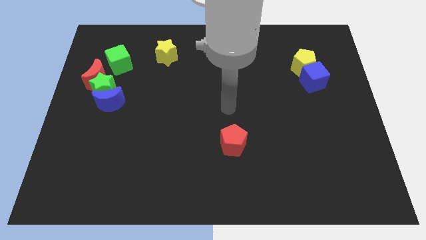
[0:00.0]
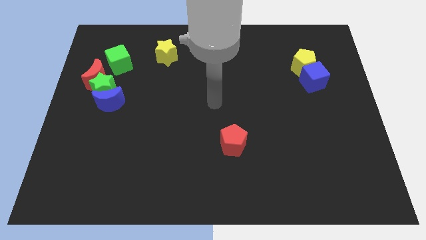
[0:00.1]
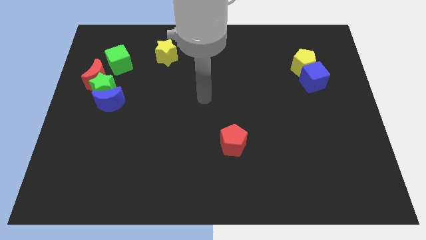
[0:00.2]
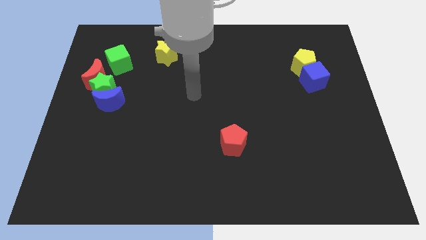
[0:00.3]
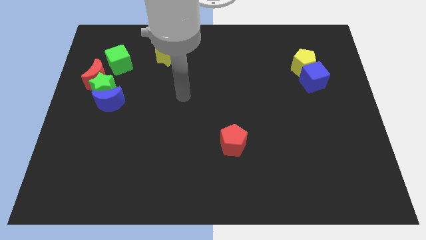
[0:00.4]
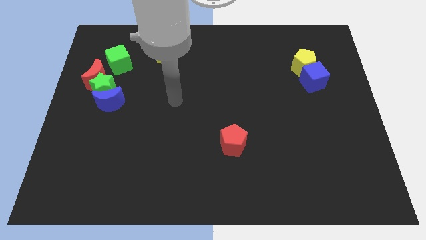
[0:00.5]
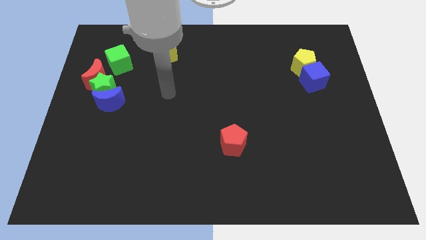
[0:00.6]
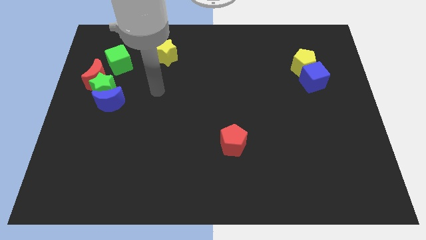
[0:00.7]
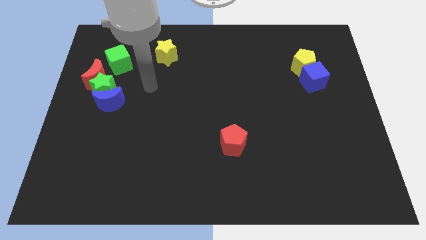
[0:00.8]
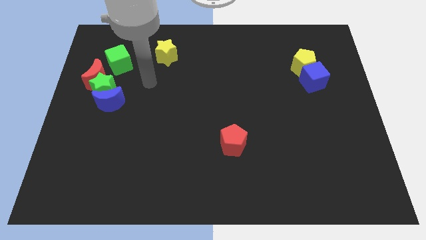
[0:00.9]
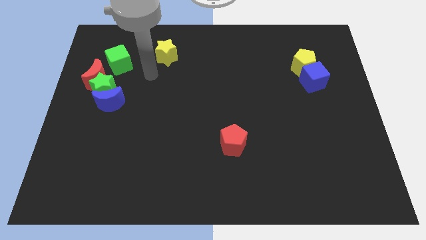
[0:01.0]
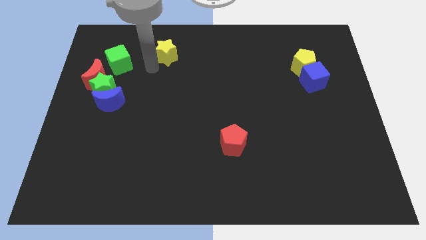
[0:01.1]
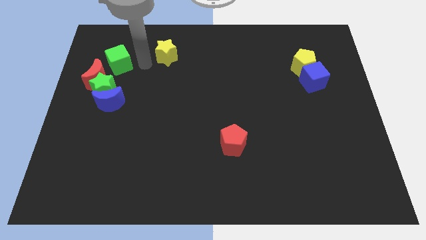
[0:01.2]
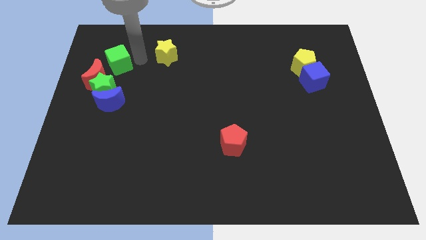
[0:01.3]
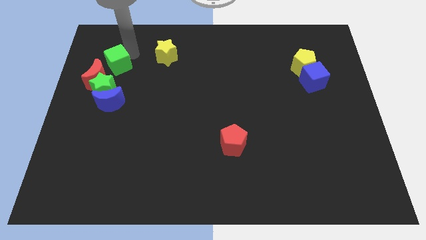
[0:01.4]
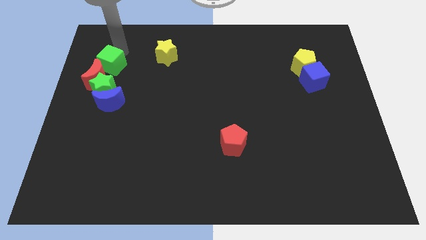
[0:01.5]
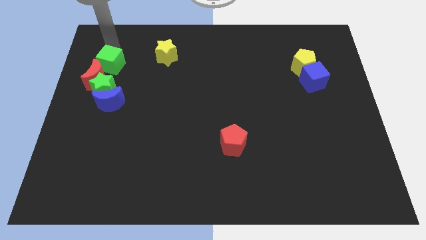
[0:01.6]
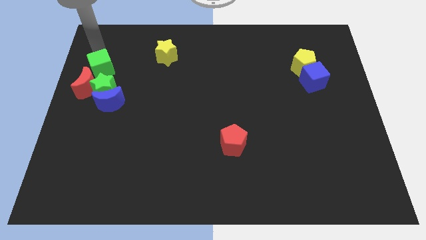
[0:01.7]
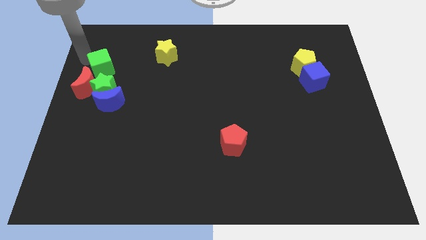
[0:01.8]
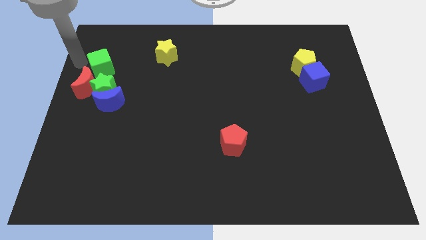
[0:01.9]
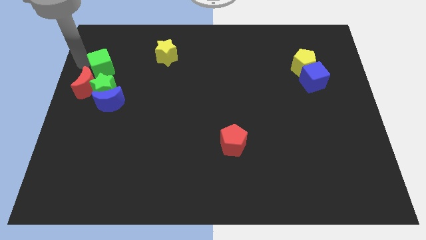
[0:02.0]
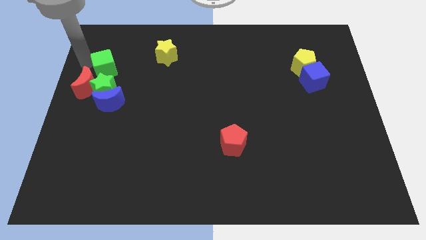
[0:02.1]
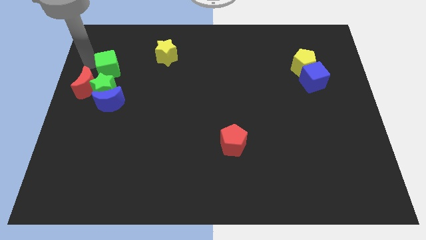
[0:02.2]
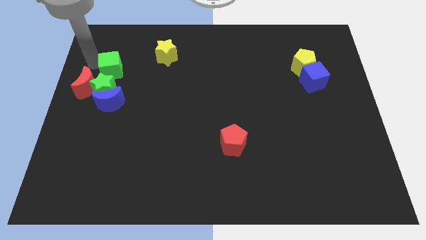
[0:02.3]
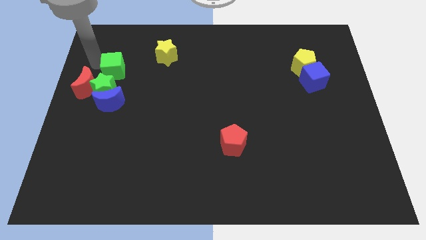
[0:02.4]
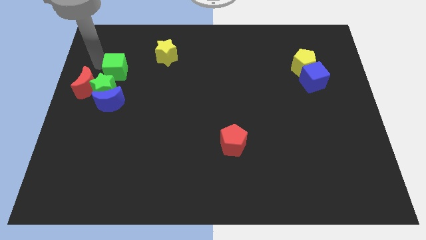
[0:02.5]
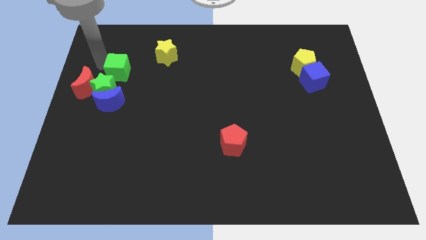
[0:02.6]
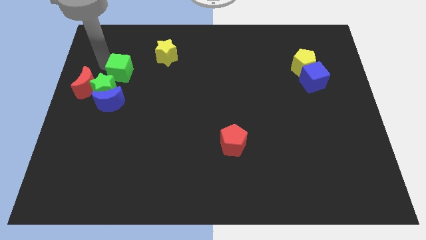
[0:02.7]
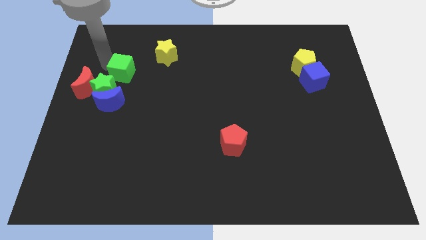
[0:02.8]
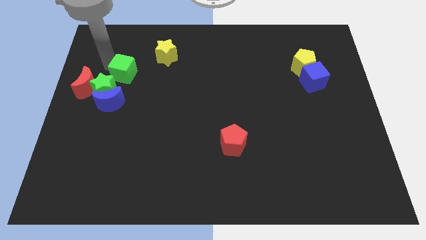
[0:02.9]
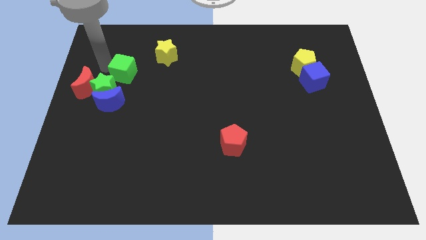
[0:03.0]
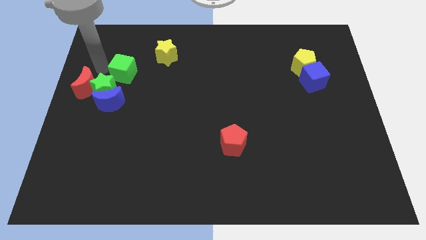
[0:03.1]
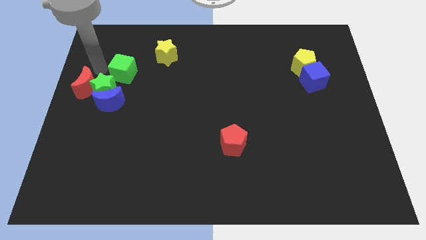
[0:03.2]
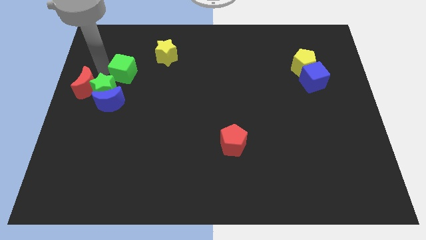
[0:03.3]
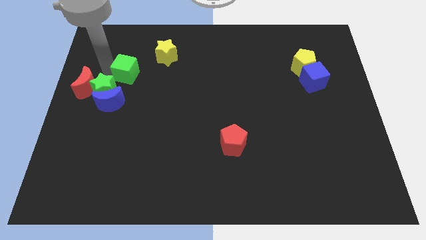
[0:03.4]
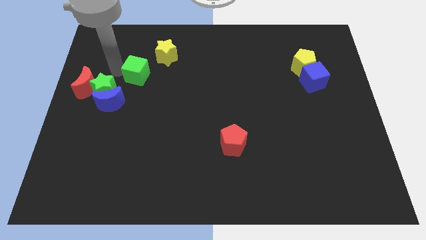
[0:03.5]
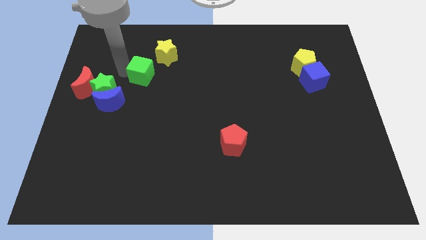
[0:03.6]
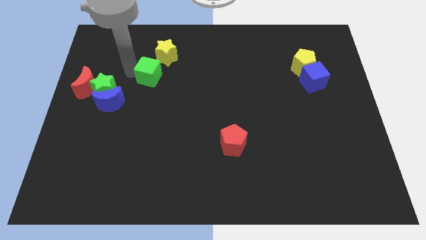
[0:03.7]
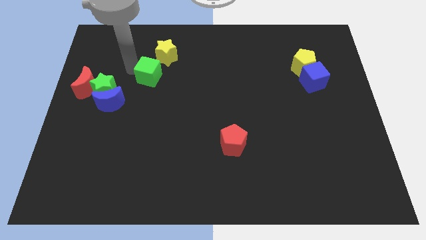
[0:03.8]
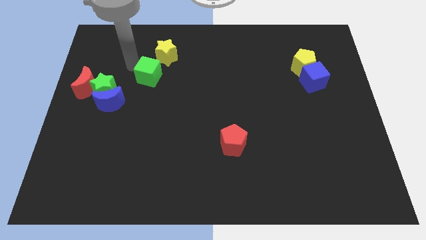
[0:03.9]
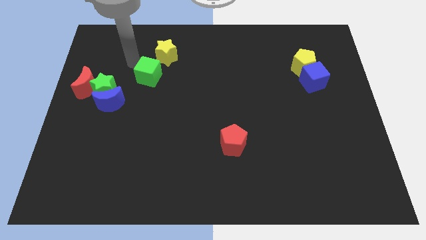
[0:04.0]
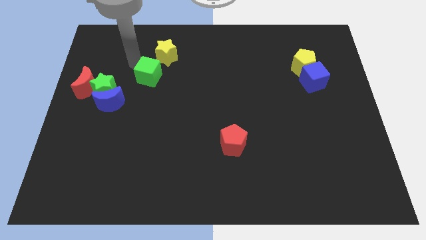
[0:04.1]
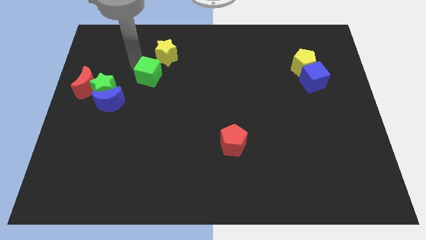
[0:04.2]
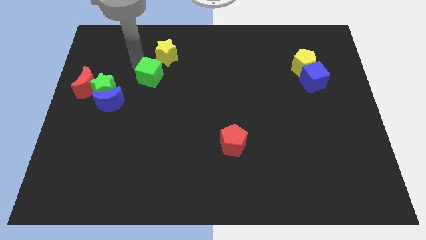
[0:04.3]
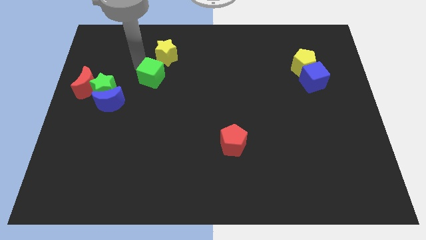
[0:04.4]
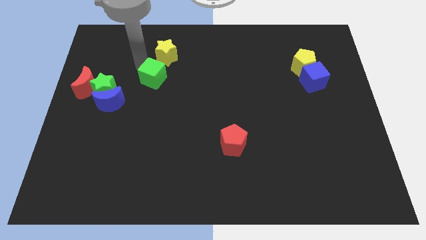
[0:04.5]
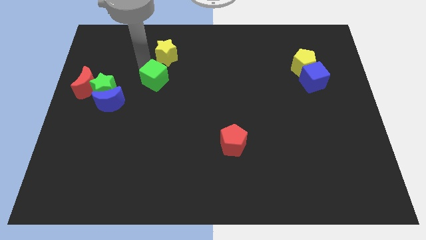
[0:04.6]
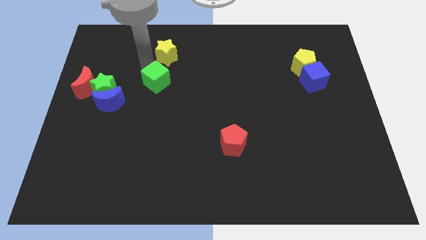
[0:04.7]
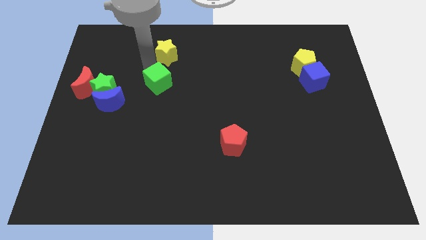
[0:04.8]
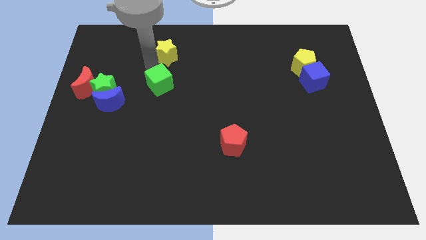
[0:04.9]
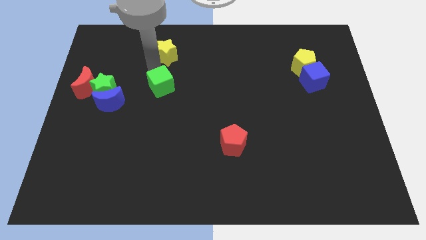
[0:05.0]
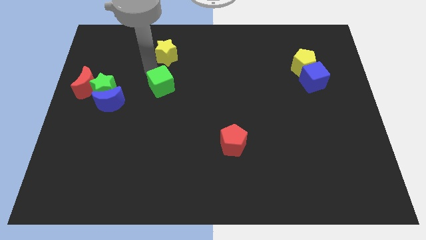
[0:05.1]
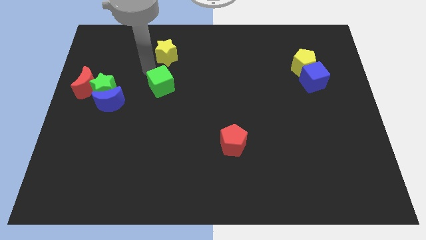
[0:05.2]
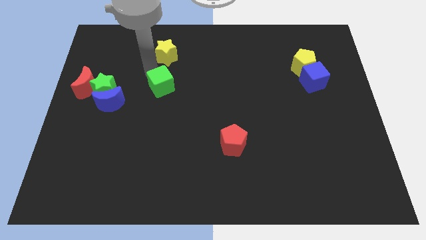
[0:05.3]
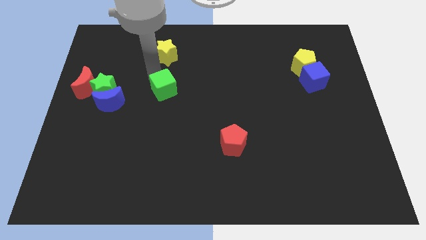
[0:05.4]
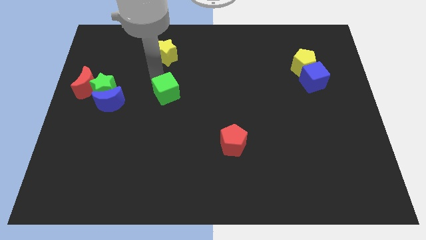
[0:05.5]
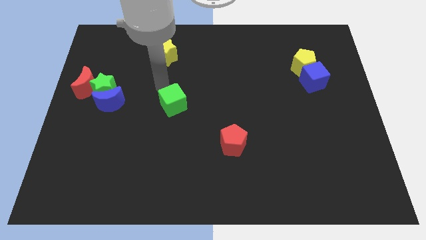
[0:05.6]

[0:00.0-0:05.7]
push the green cube down and then to the right

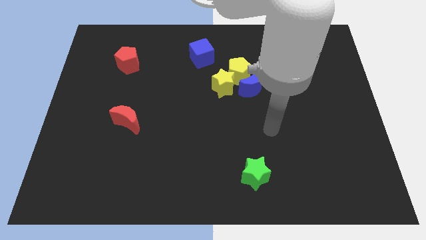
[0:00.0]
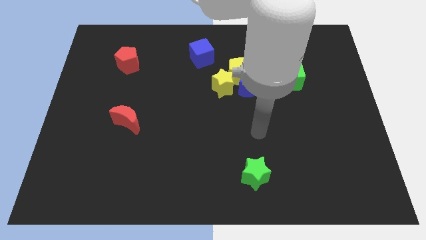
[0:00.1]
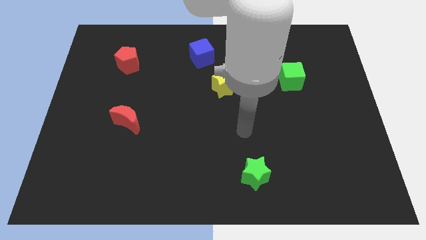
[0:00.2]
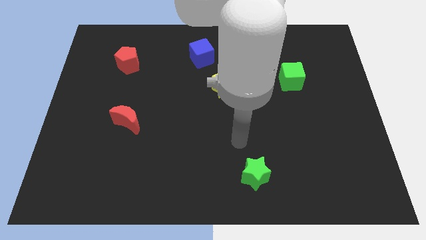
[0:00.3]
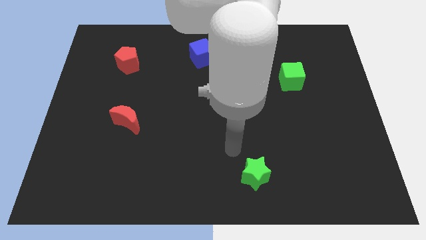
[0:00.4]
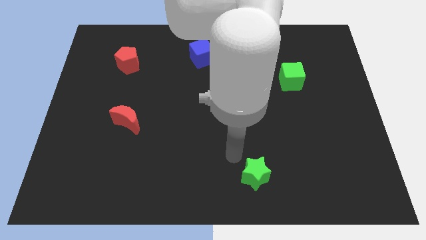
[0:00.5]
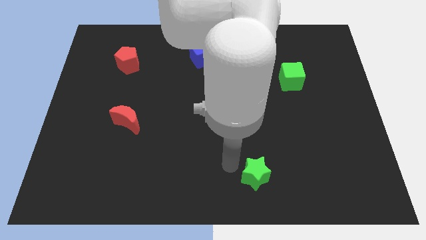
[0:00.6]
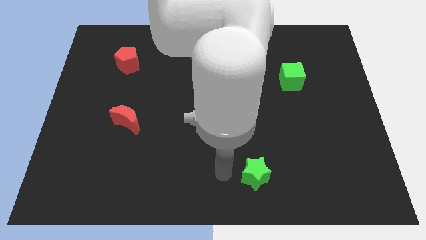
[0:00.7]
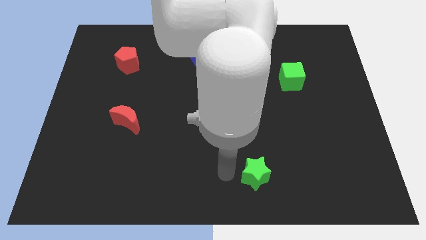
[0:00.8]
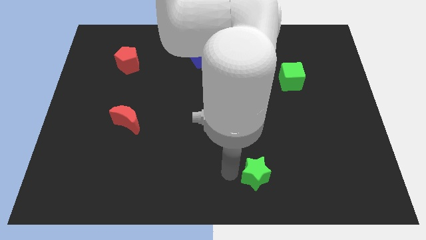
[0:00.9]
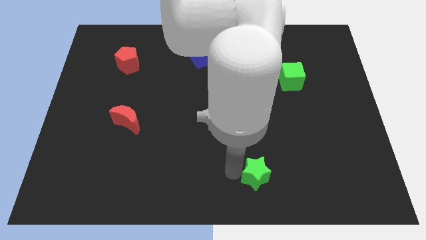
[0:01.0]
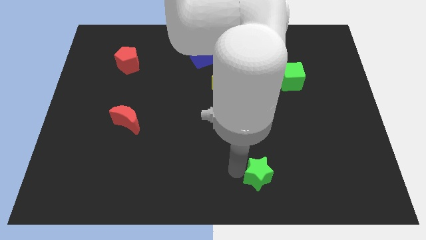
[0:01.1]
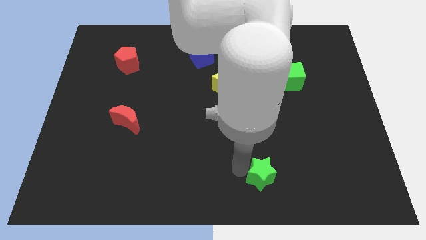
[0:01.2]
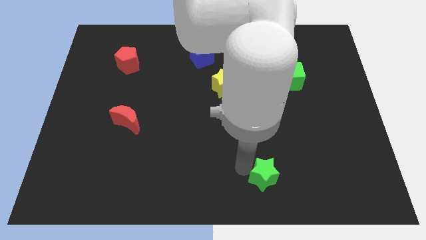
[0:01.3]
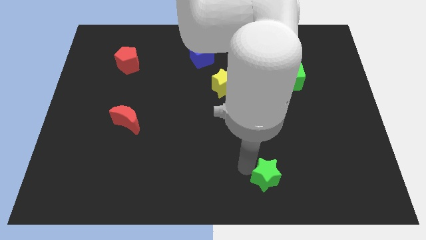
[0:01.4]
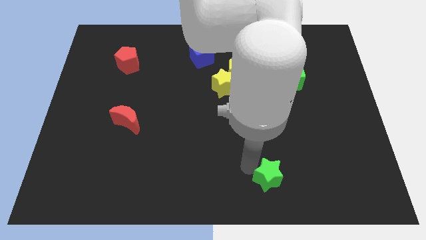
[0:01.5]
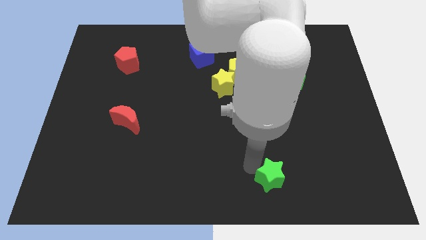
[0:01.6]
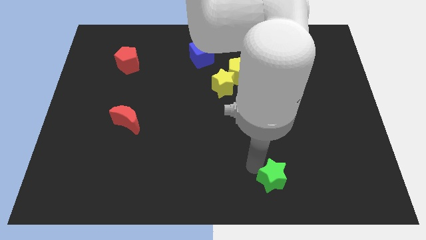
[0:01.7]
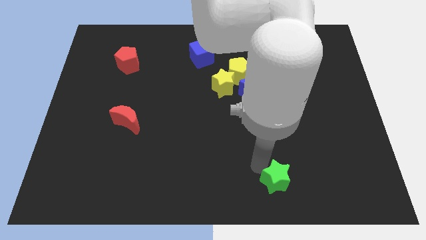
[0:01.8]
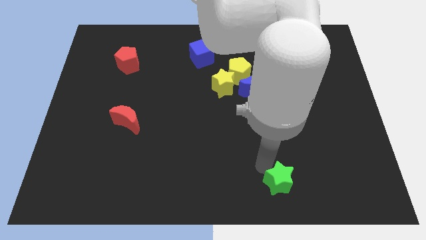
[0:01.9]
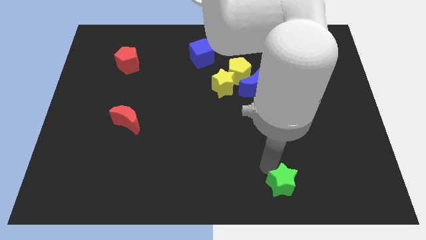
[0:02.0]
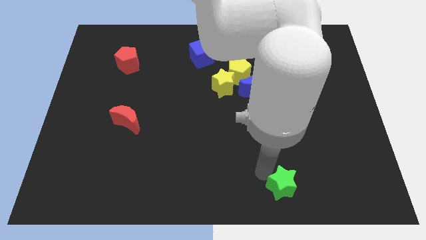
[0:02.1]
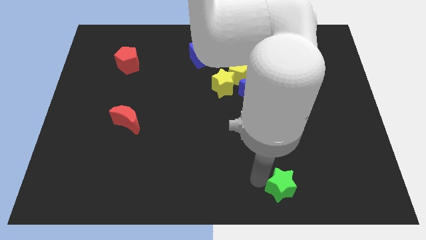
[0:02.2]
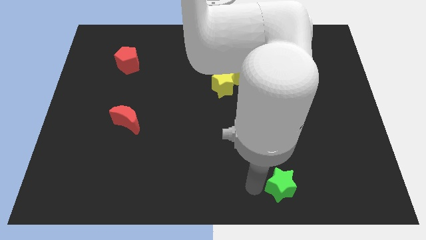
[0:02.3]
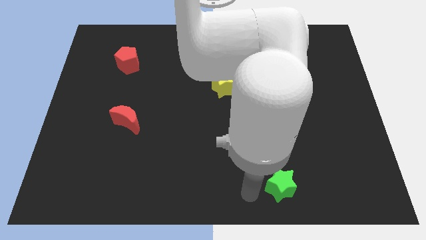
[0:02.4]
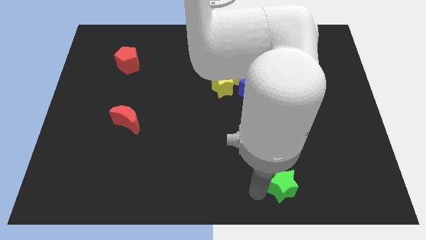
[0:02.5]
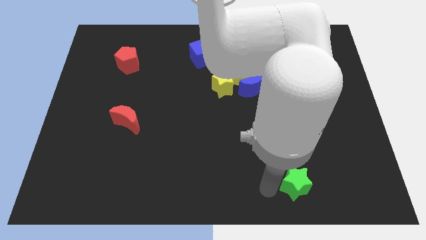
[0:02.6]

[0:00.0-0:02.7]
slightly move the green star right
